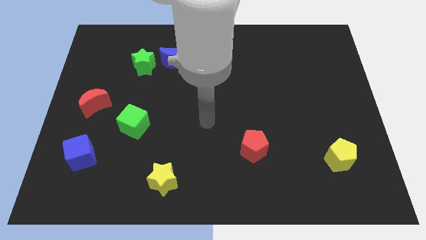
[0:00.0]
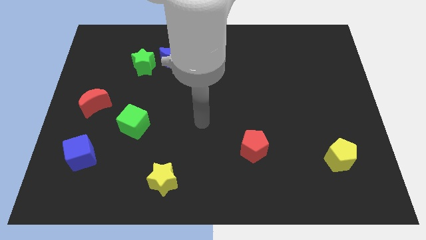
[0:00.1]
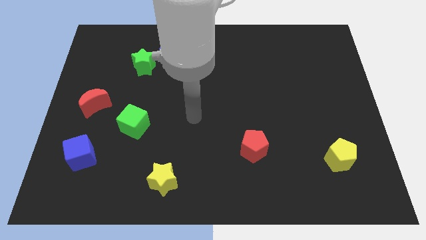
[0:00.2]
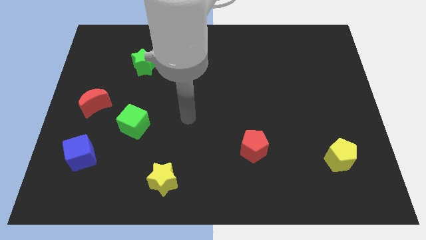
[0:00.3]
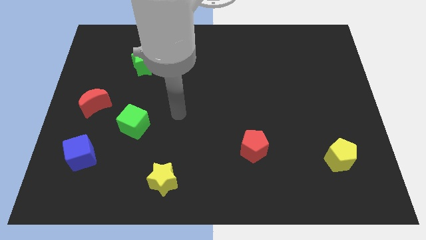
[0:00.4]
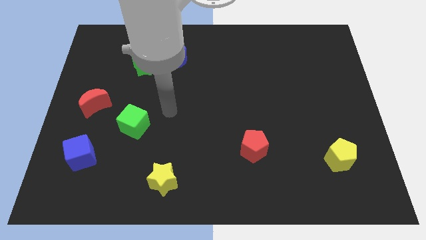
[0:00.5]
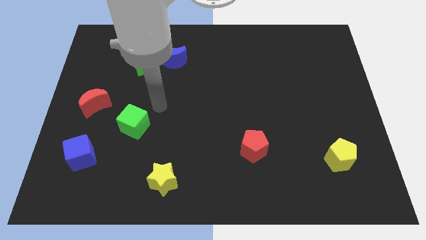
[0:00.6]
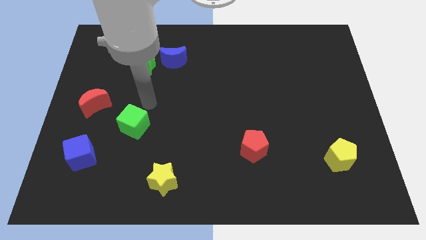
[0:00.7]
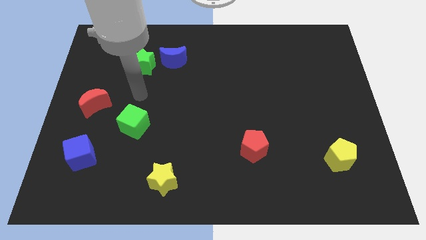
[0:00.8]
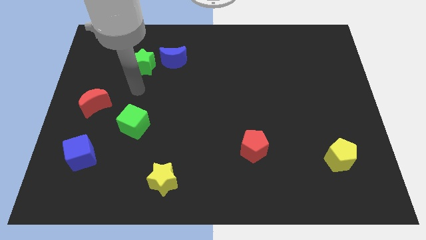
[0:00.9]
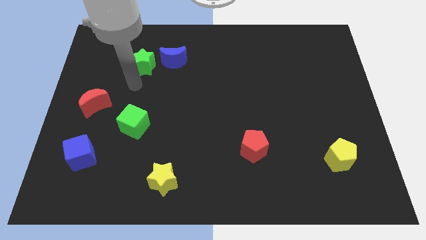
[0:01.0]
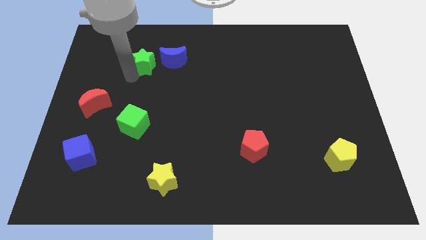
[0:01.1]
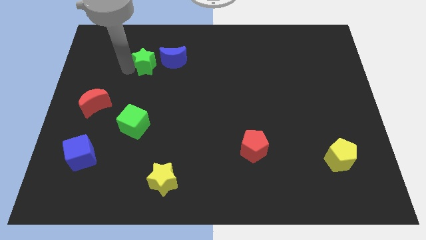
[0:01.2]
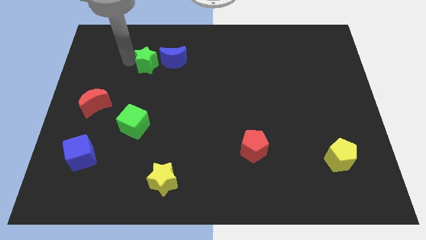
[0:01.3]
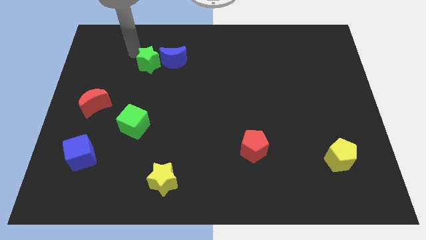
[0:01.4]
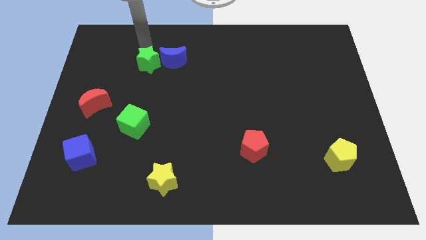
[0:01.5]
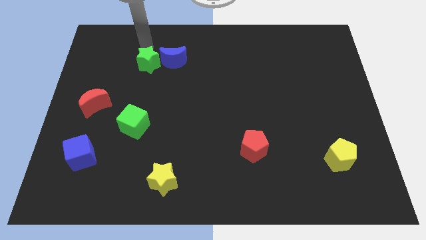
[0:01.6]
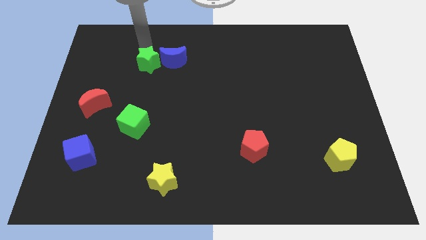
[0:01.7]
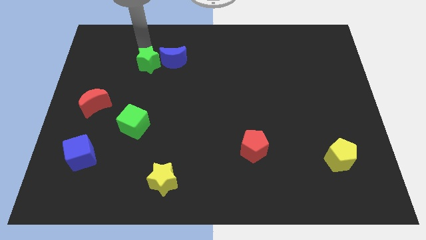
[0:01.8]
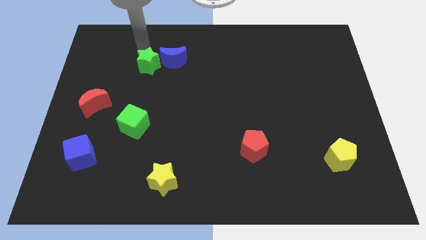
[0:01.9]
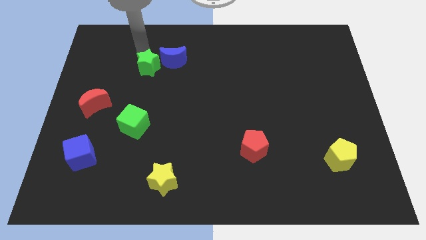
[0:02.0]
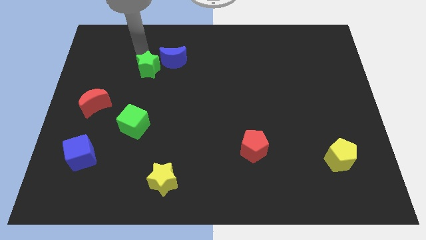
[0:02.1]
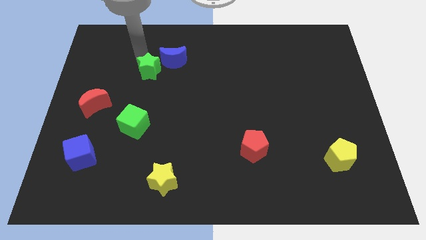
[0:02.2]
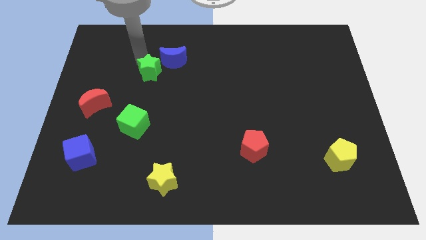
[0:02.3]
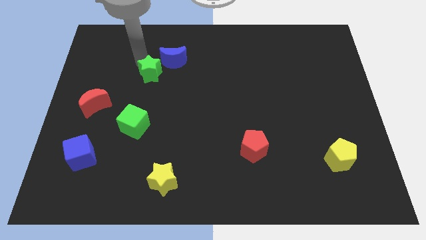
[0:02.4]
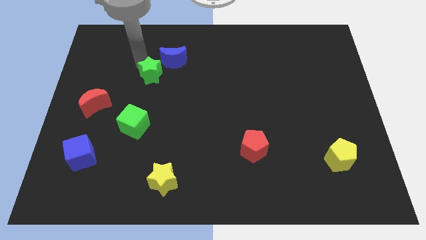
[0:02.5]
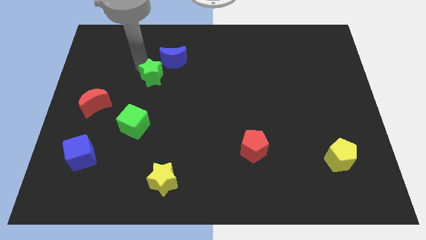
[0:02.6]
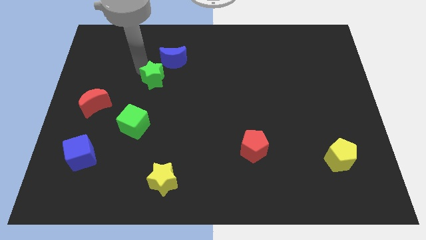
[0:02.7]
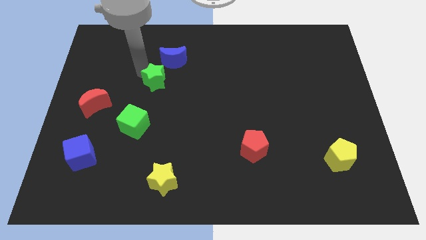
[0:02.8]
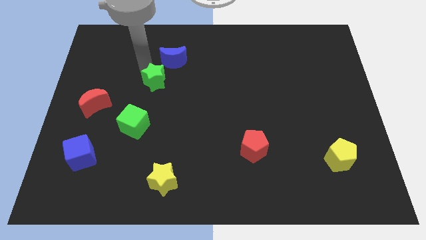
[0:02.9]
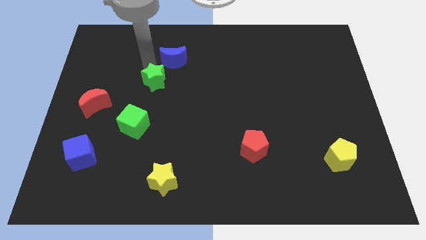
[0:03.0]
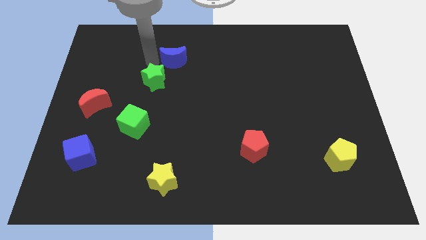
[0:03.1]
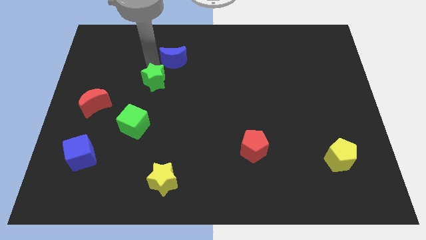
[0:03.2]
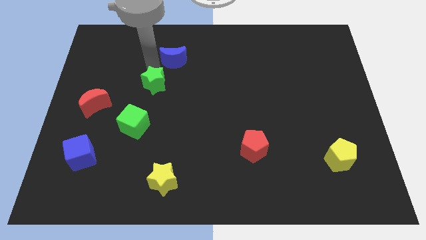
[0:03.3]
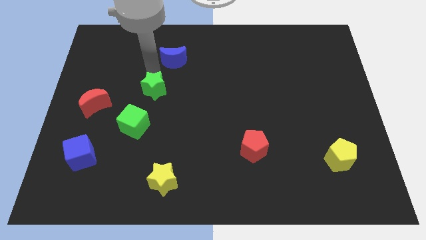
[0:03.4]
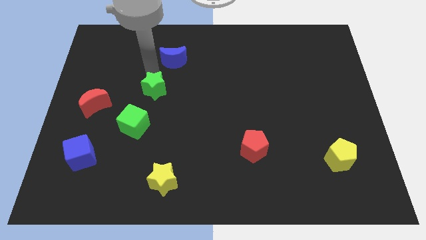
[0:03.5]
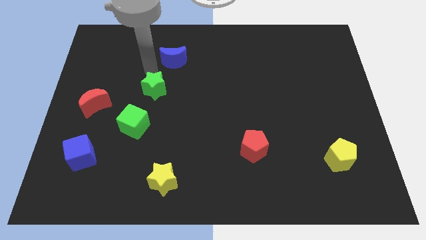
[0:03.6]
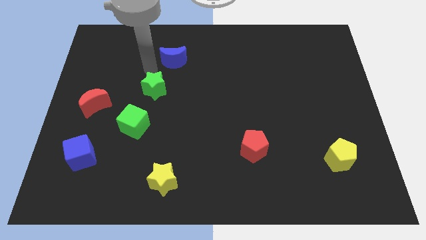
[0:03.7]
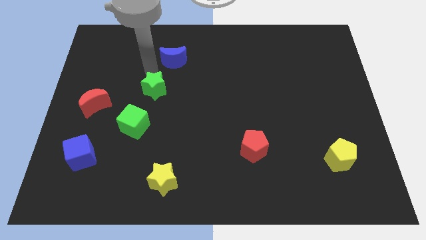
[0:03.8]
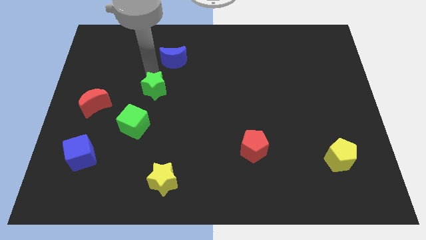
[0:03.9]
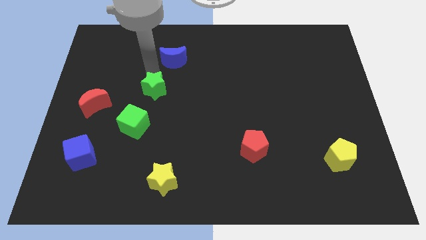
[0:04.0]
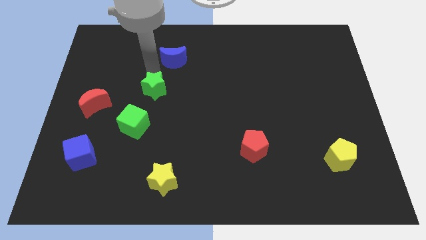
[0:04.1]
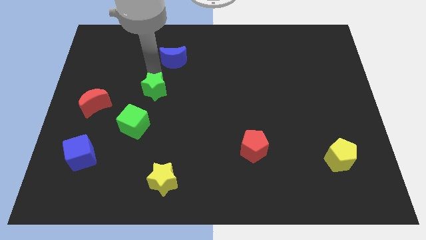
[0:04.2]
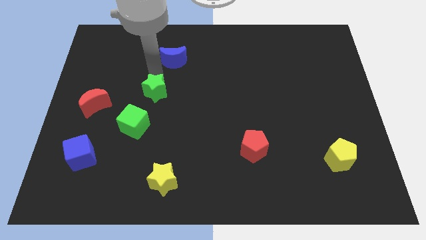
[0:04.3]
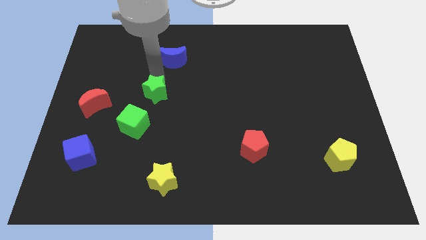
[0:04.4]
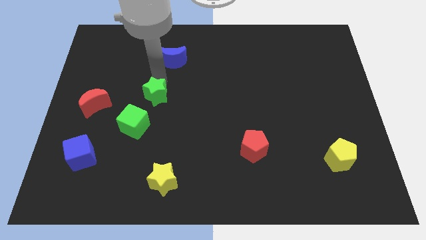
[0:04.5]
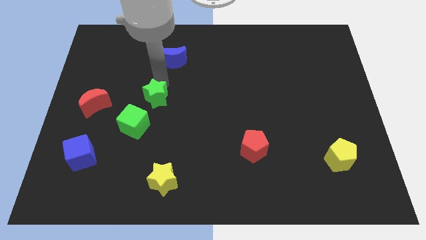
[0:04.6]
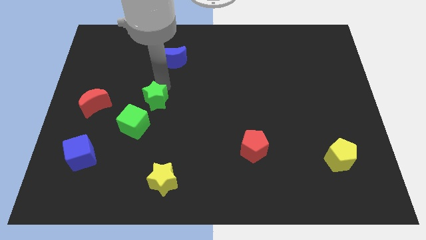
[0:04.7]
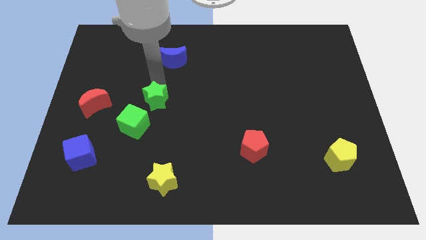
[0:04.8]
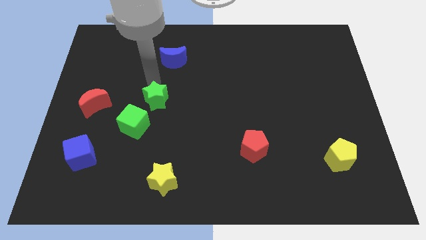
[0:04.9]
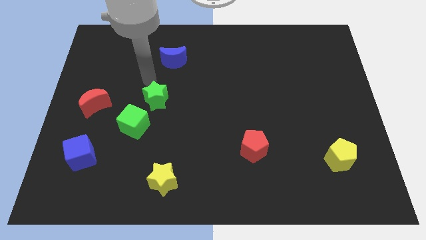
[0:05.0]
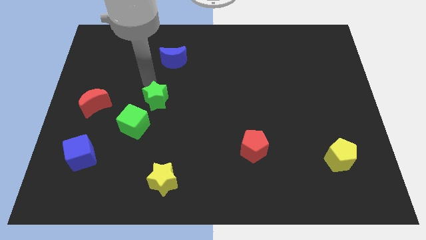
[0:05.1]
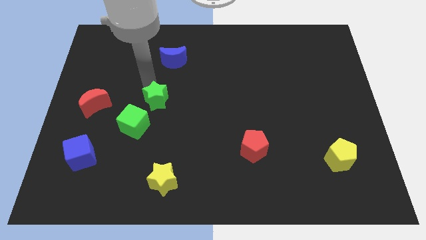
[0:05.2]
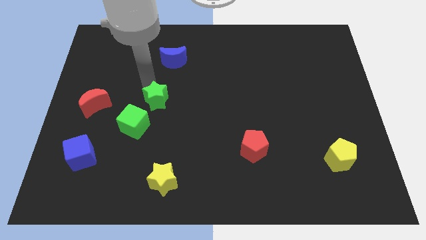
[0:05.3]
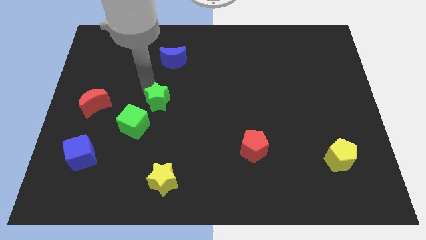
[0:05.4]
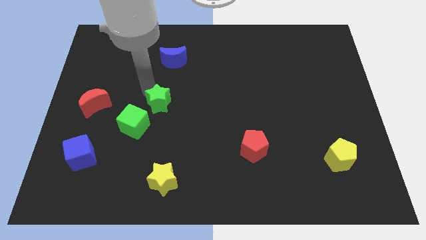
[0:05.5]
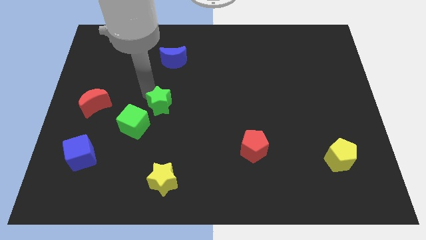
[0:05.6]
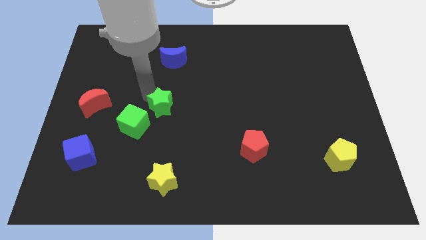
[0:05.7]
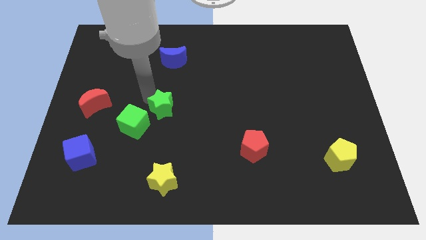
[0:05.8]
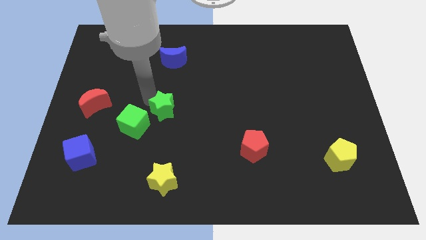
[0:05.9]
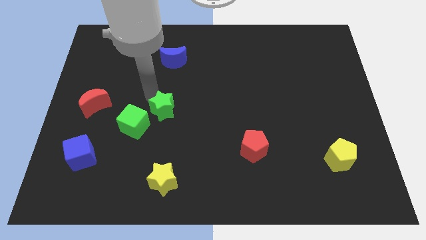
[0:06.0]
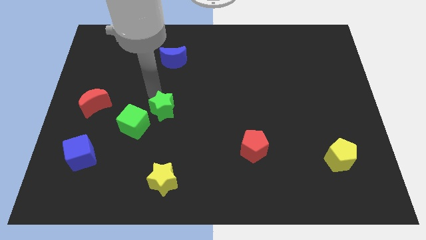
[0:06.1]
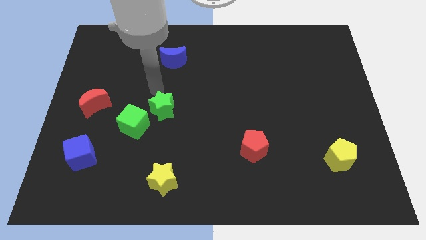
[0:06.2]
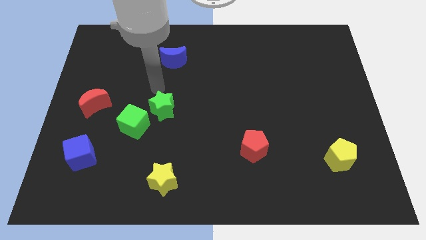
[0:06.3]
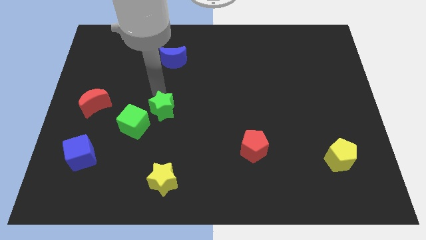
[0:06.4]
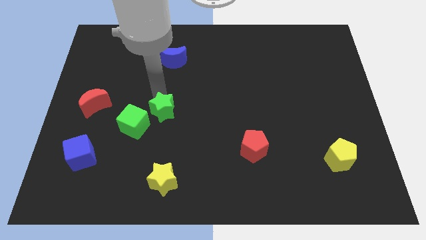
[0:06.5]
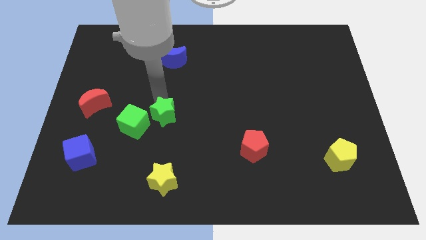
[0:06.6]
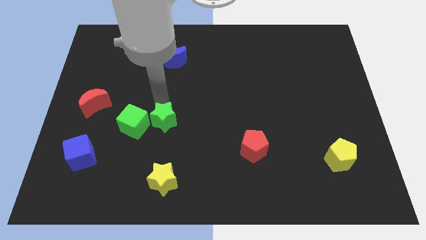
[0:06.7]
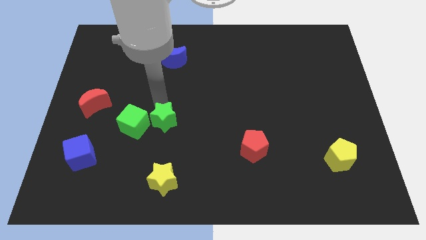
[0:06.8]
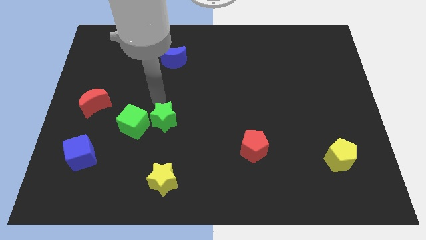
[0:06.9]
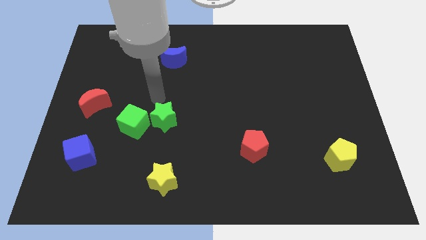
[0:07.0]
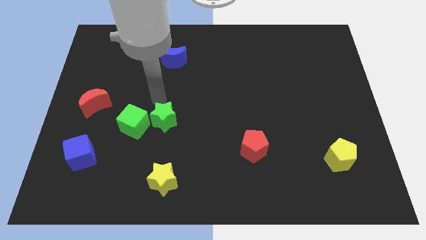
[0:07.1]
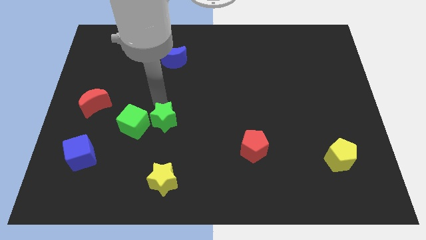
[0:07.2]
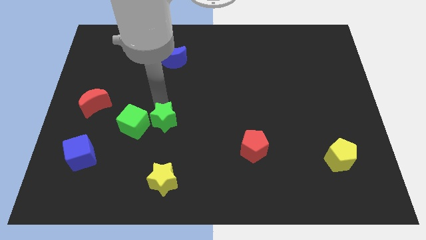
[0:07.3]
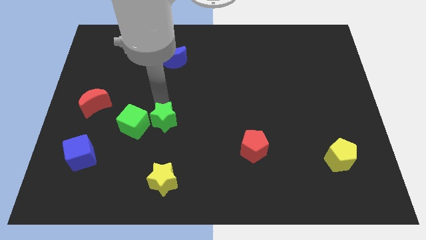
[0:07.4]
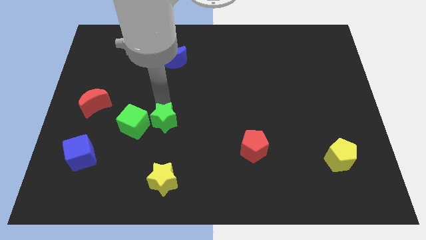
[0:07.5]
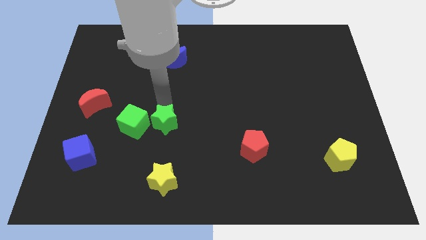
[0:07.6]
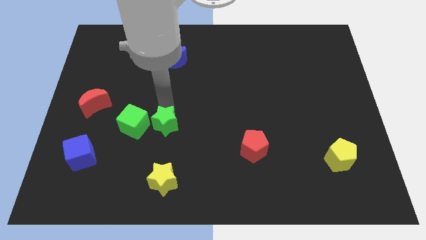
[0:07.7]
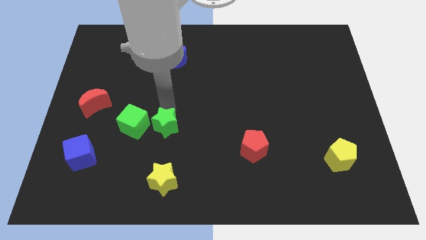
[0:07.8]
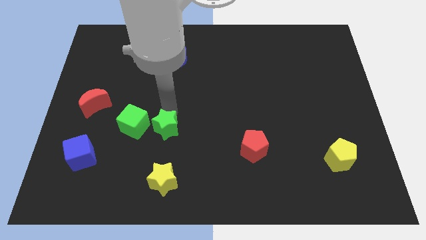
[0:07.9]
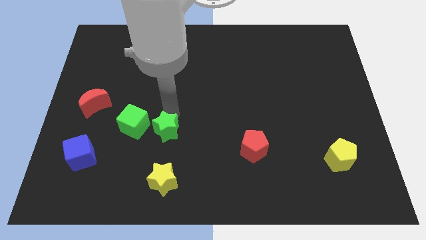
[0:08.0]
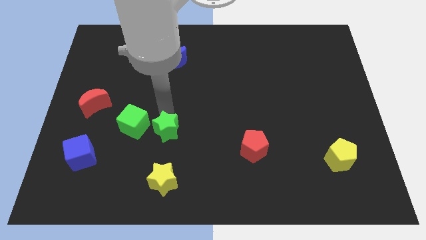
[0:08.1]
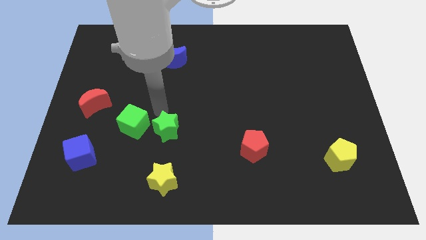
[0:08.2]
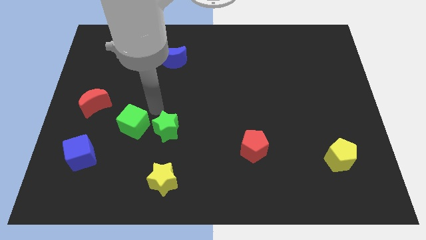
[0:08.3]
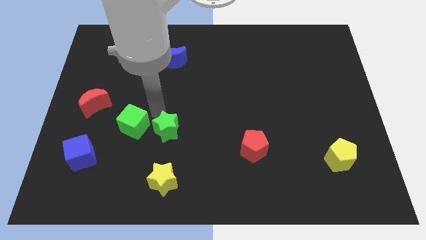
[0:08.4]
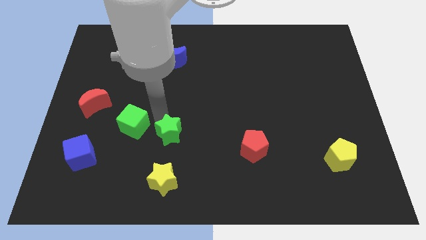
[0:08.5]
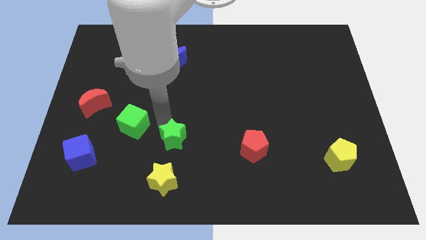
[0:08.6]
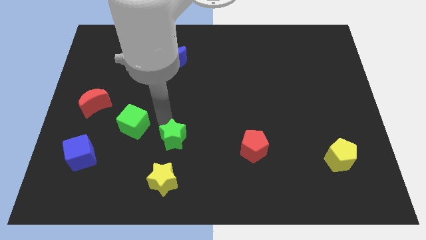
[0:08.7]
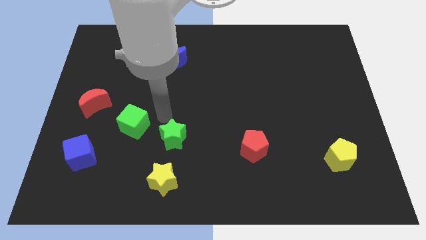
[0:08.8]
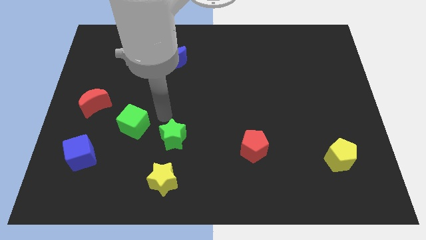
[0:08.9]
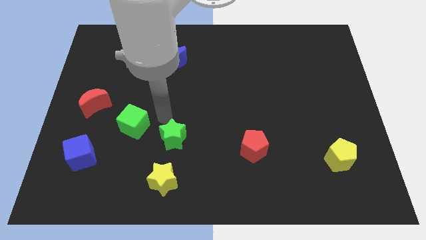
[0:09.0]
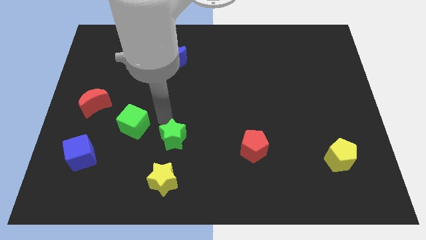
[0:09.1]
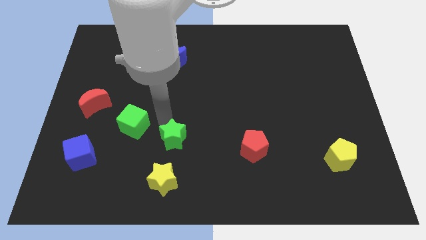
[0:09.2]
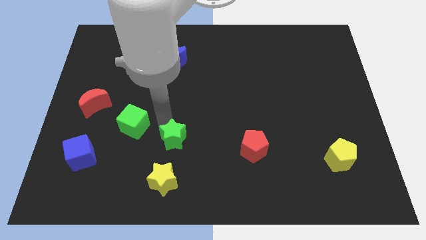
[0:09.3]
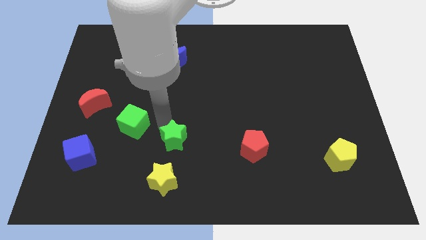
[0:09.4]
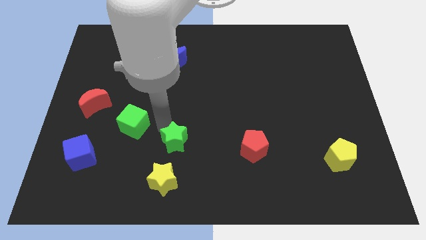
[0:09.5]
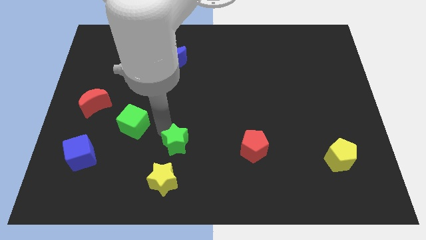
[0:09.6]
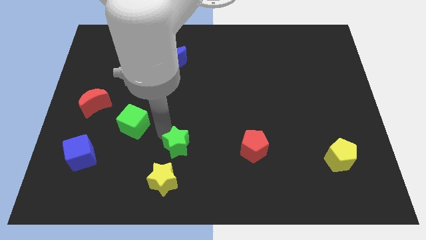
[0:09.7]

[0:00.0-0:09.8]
push the green star diagonally up and to the right of the yellow star
